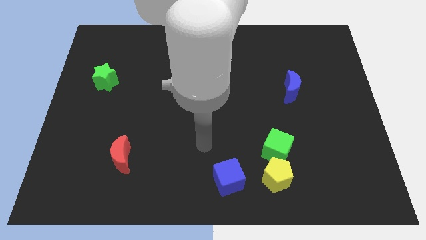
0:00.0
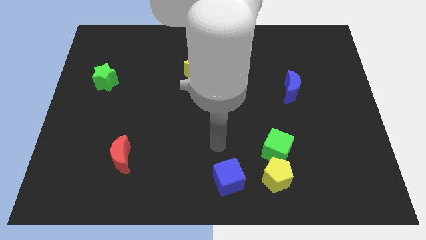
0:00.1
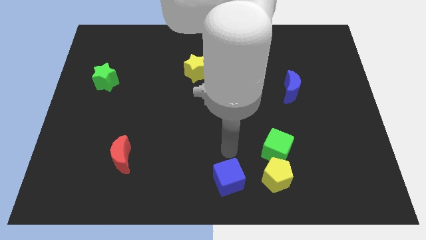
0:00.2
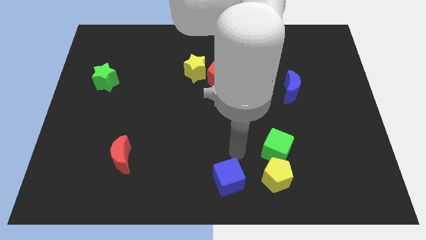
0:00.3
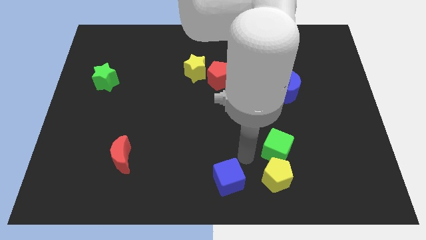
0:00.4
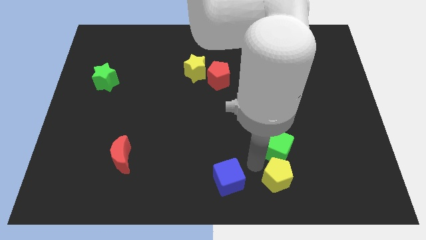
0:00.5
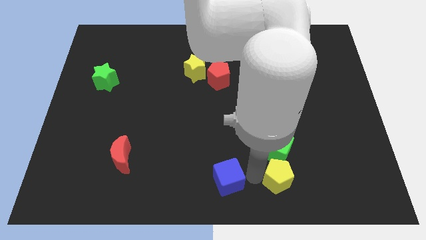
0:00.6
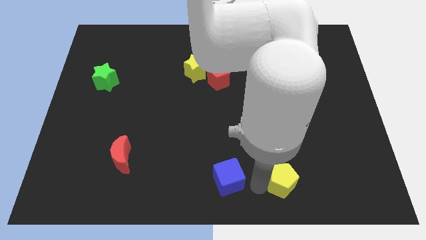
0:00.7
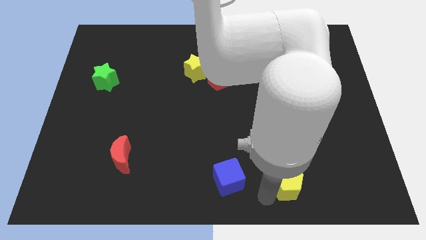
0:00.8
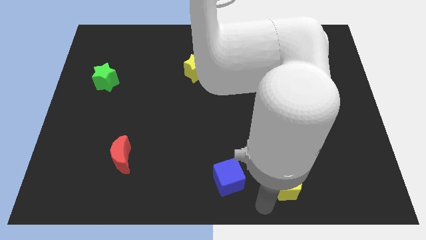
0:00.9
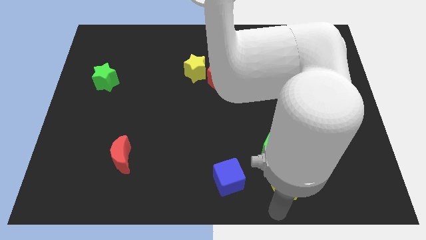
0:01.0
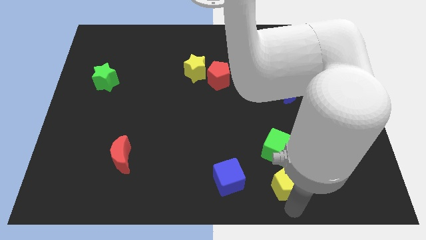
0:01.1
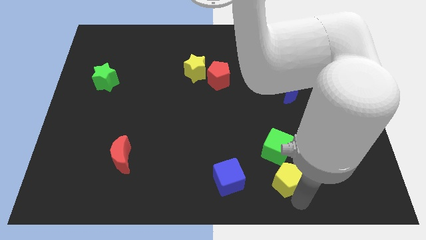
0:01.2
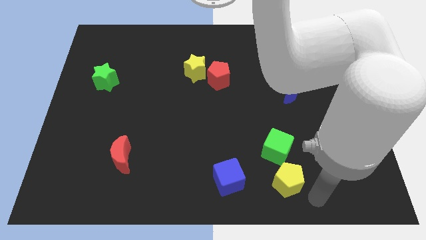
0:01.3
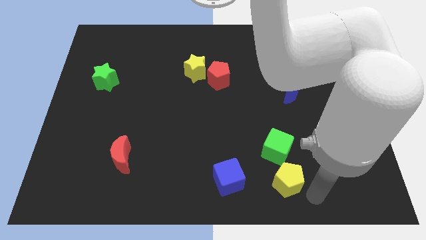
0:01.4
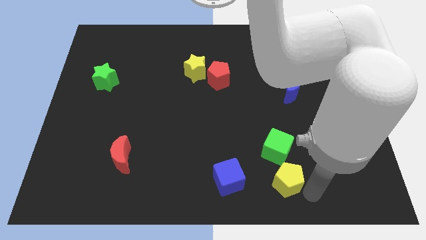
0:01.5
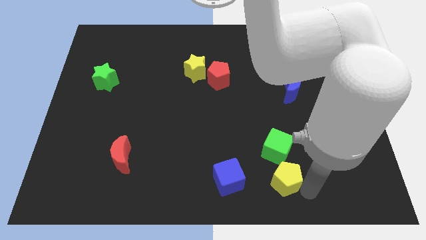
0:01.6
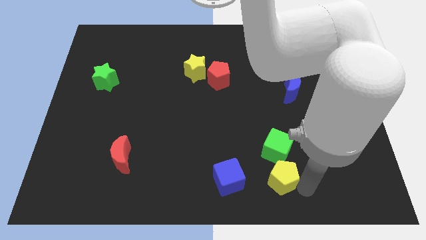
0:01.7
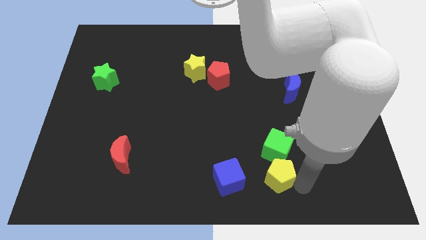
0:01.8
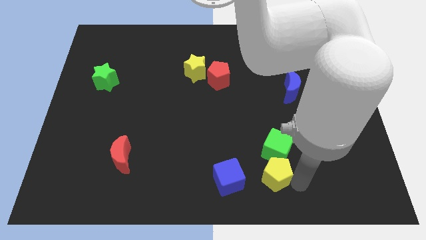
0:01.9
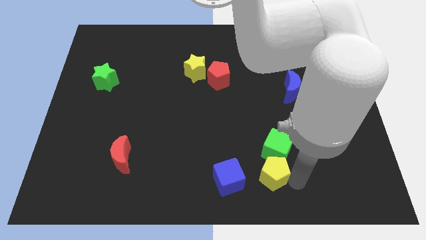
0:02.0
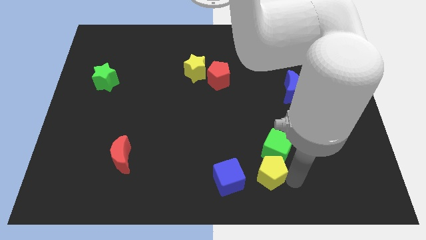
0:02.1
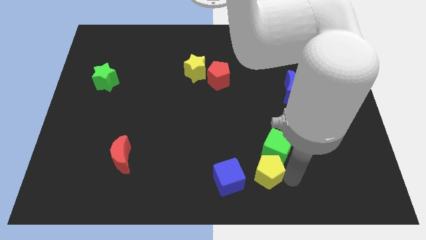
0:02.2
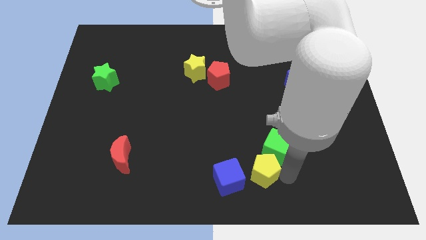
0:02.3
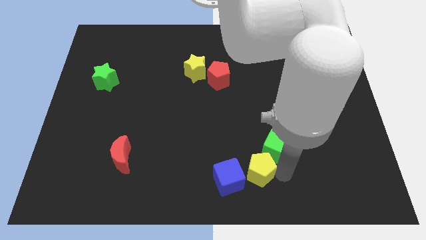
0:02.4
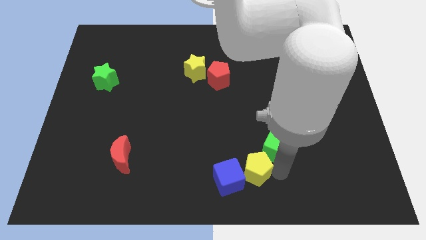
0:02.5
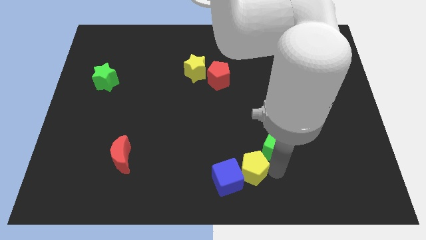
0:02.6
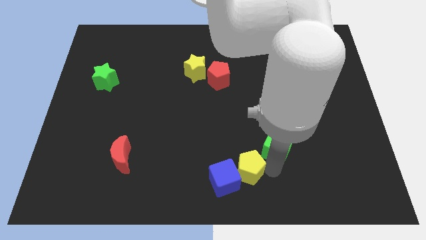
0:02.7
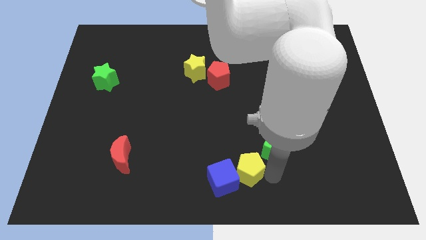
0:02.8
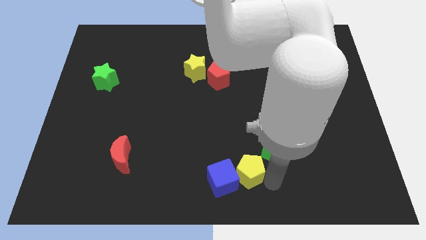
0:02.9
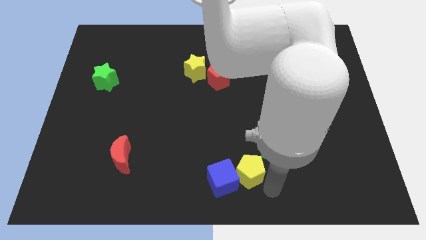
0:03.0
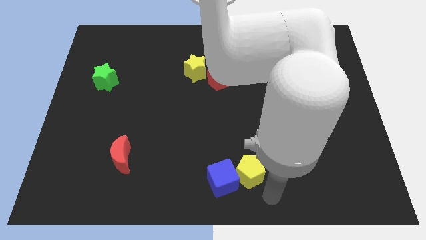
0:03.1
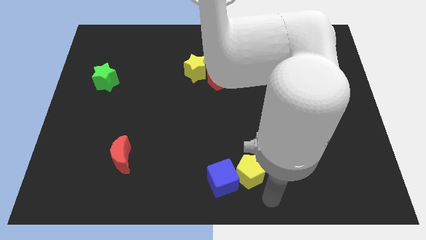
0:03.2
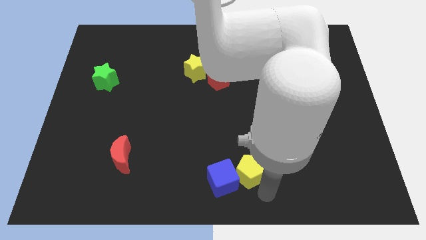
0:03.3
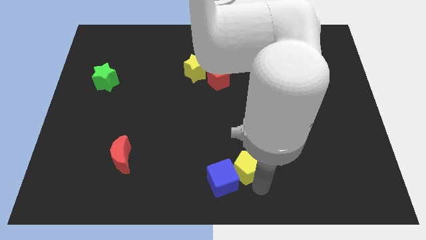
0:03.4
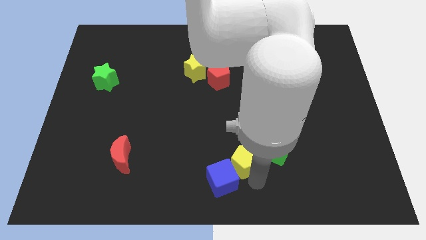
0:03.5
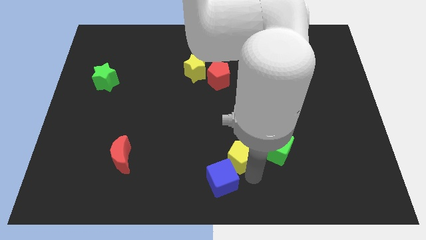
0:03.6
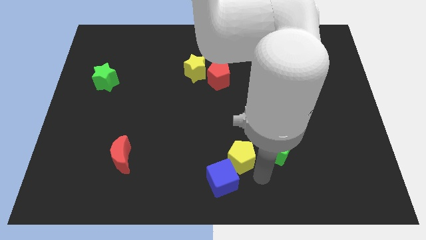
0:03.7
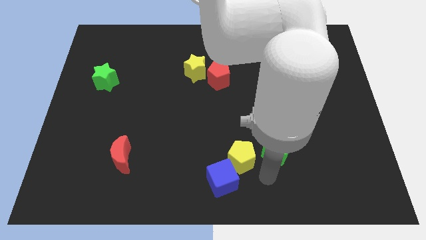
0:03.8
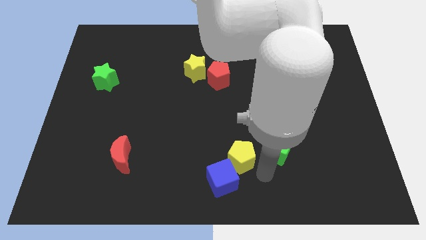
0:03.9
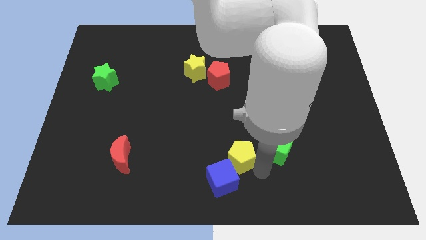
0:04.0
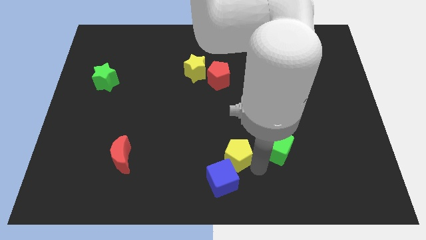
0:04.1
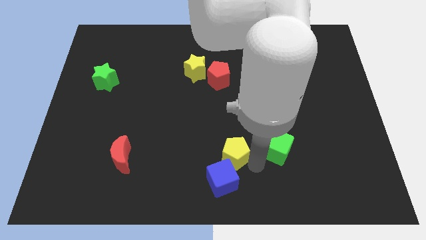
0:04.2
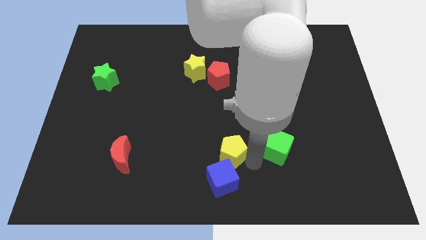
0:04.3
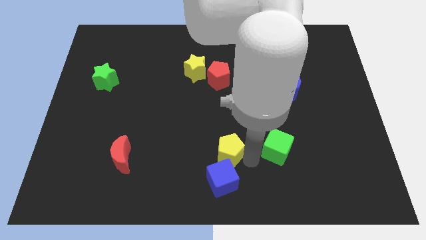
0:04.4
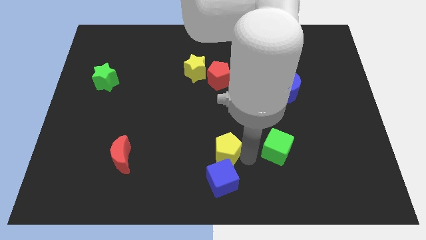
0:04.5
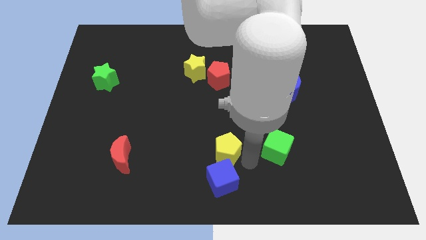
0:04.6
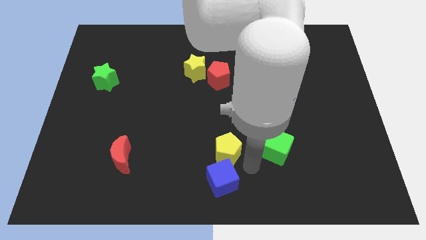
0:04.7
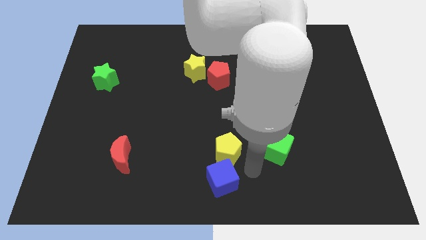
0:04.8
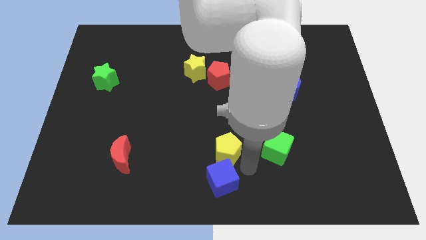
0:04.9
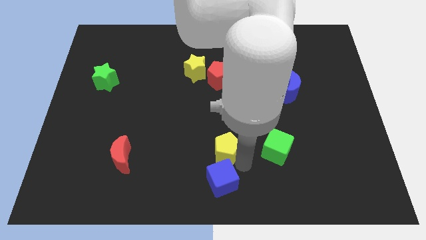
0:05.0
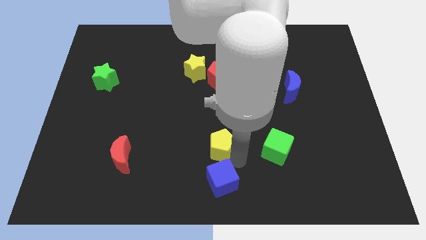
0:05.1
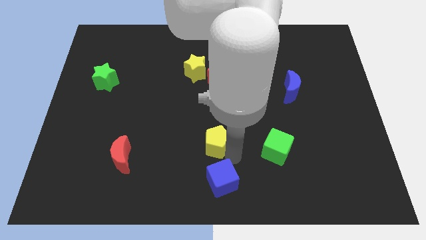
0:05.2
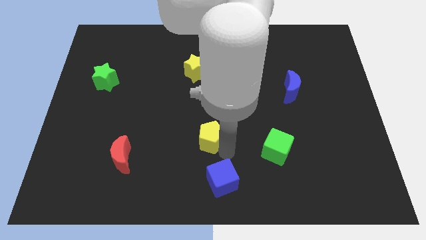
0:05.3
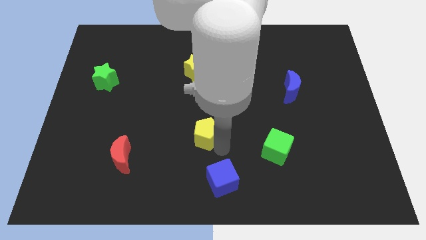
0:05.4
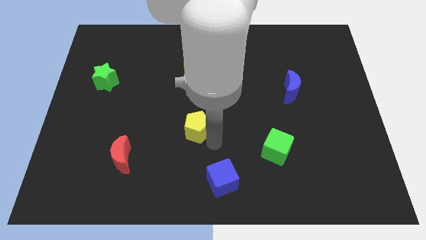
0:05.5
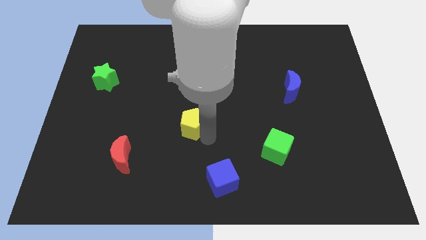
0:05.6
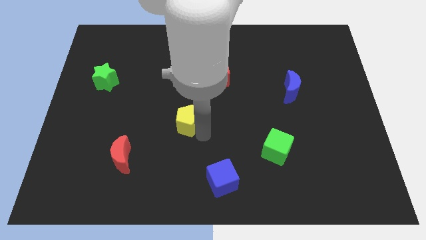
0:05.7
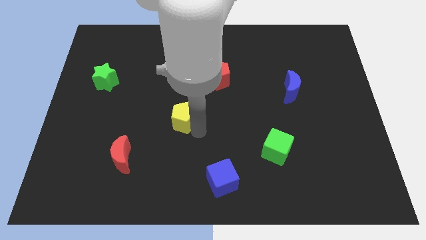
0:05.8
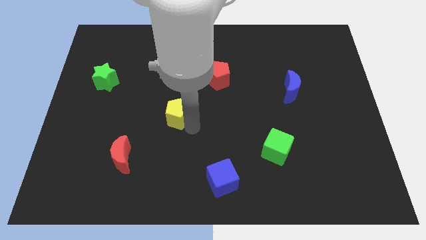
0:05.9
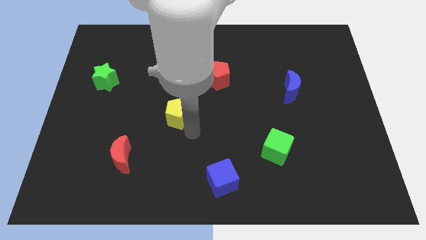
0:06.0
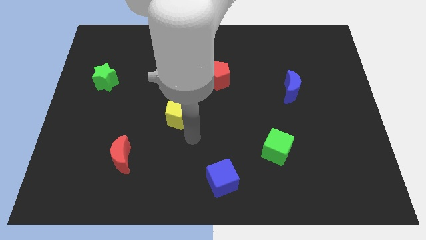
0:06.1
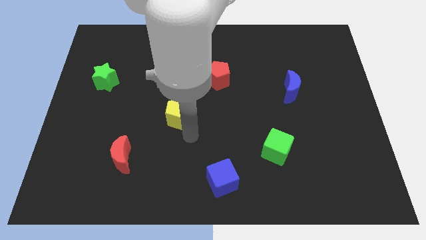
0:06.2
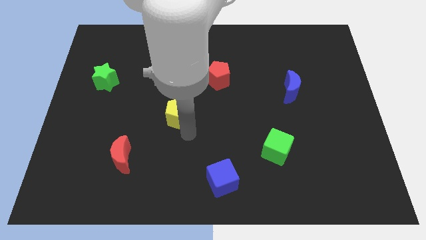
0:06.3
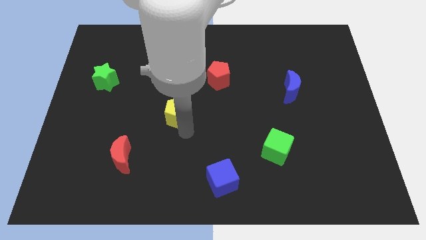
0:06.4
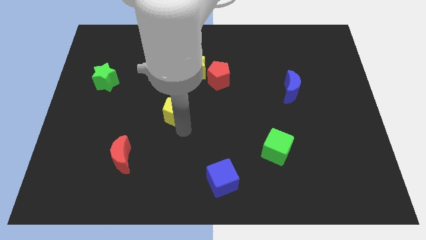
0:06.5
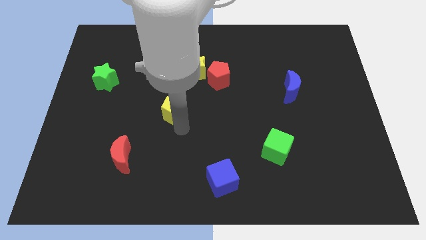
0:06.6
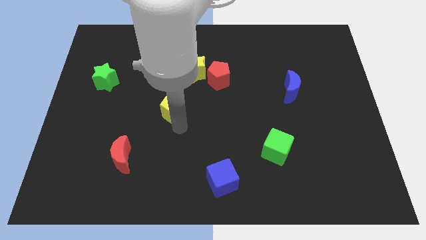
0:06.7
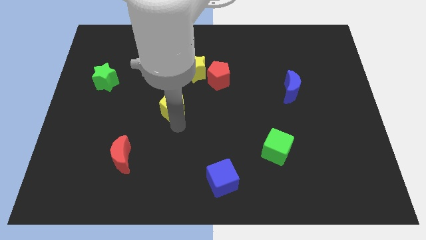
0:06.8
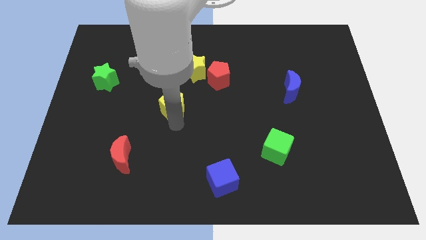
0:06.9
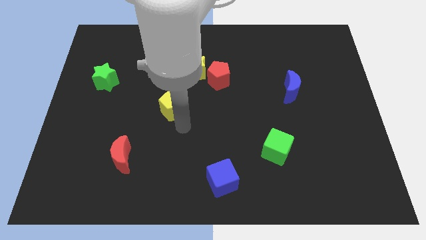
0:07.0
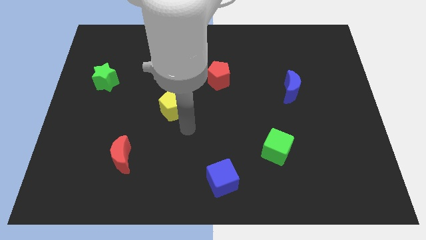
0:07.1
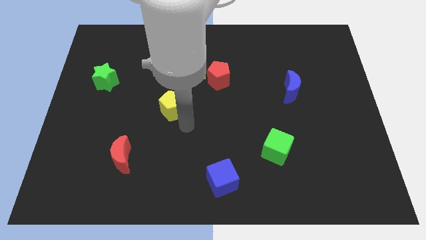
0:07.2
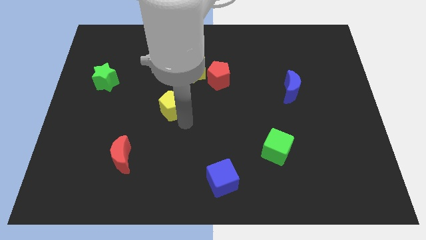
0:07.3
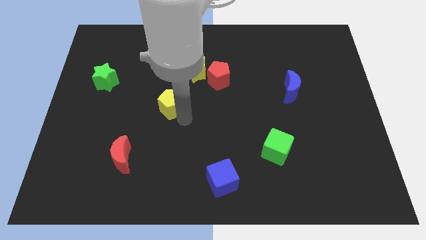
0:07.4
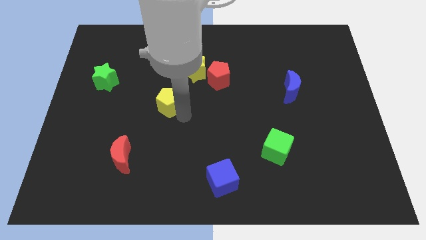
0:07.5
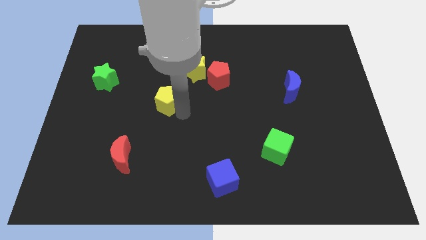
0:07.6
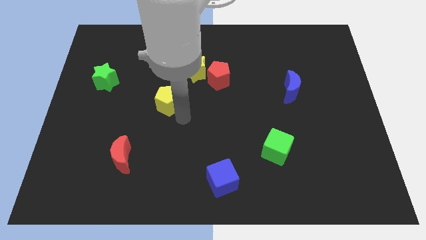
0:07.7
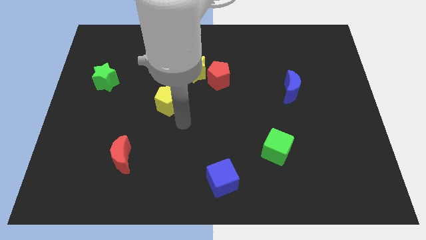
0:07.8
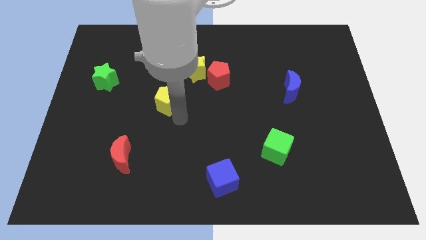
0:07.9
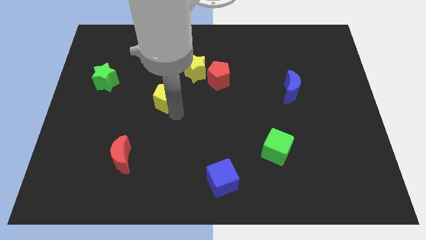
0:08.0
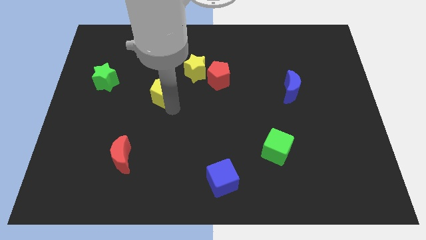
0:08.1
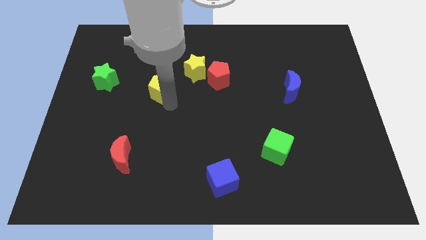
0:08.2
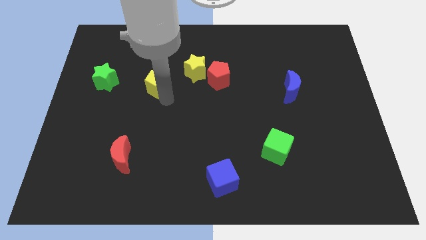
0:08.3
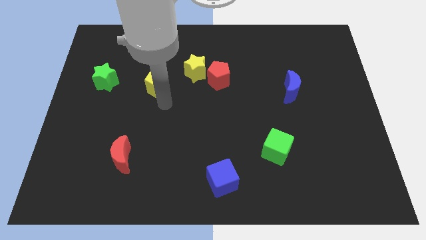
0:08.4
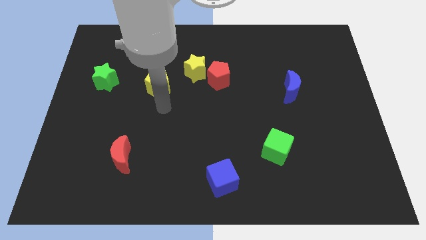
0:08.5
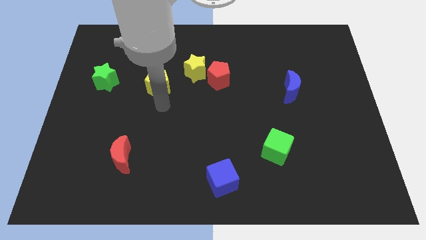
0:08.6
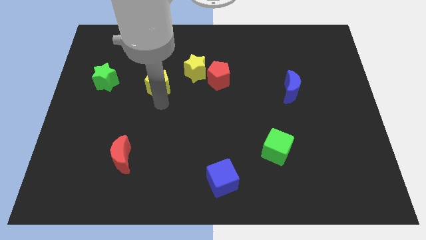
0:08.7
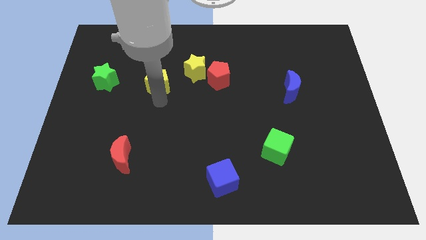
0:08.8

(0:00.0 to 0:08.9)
slide the yellow pentagon left of the yellow star
